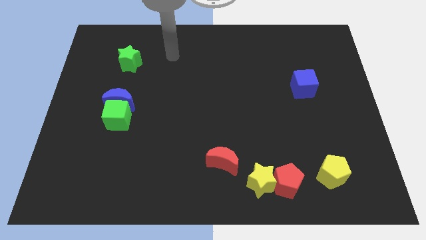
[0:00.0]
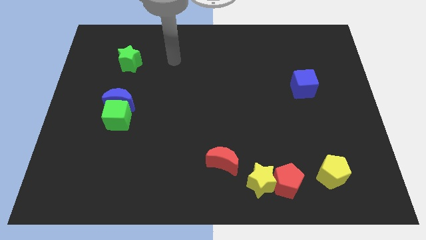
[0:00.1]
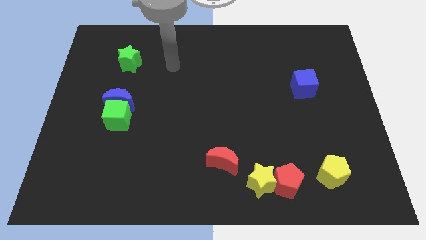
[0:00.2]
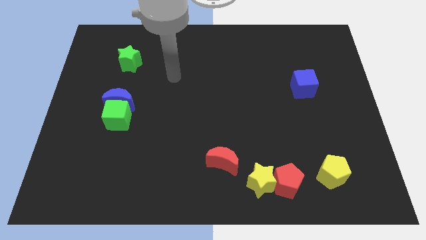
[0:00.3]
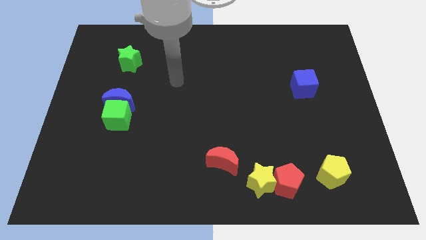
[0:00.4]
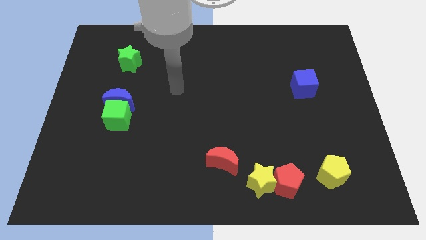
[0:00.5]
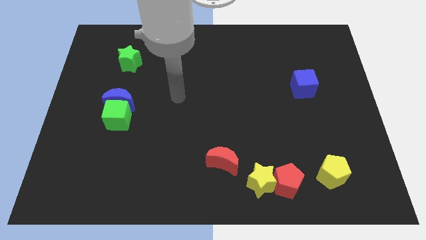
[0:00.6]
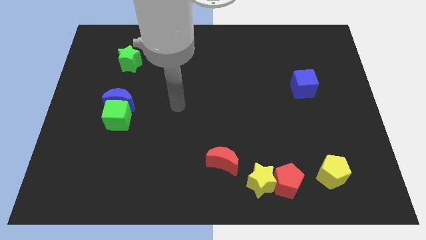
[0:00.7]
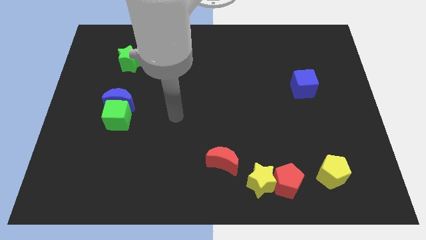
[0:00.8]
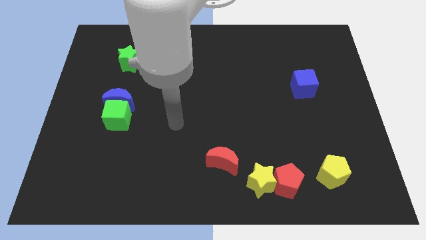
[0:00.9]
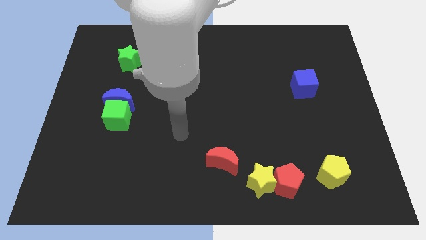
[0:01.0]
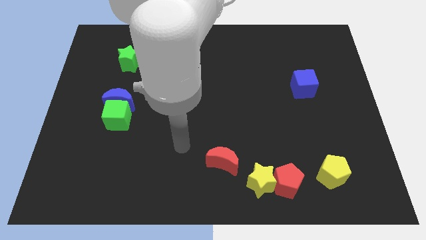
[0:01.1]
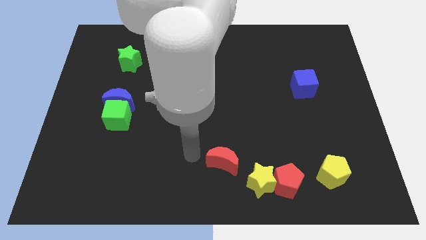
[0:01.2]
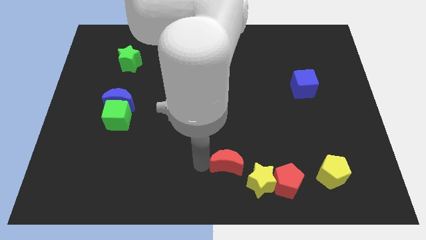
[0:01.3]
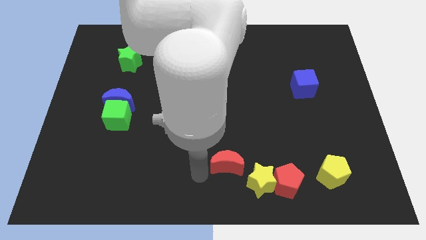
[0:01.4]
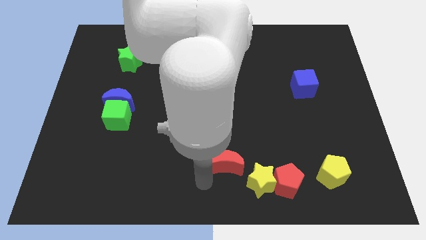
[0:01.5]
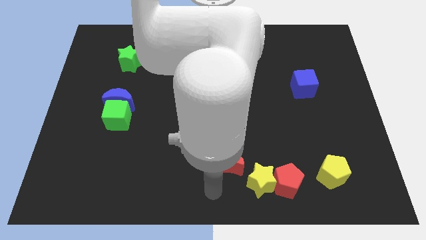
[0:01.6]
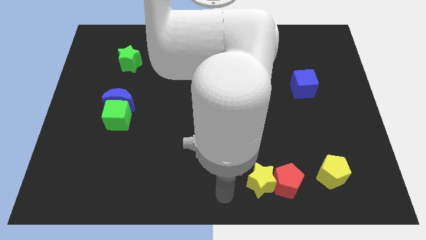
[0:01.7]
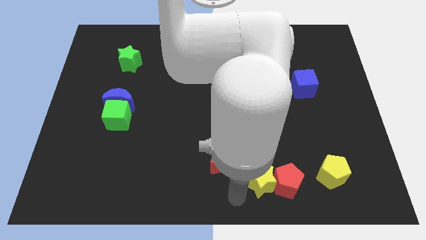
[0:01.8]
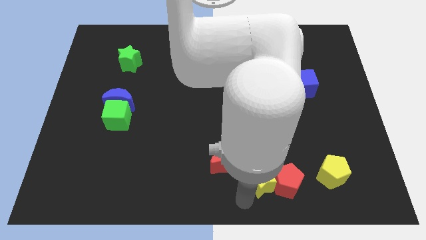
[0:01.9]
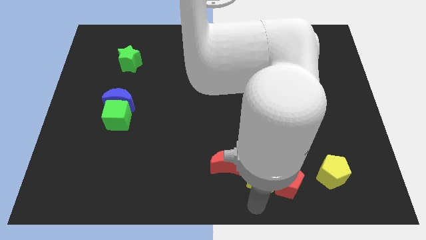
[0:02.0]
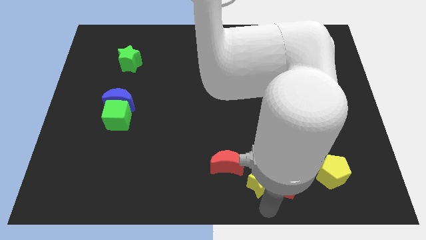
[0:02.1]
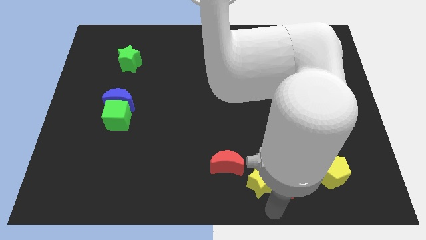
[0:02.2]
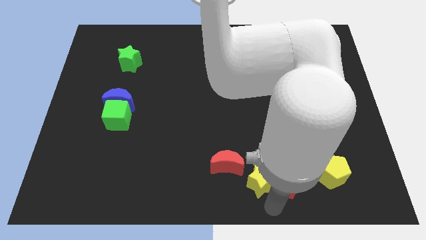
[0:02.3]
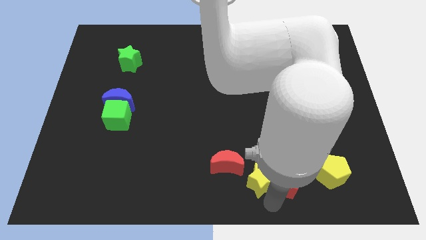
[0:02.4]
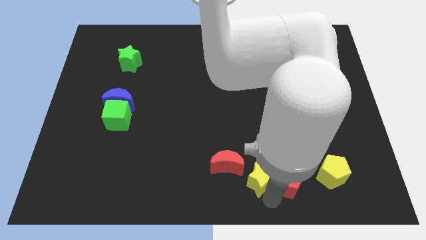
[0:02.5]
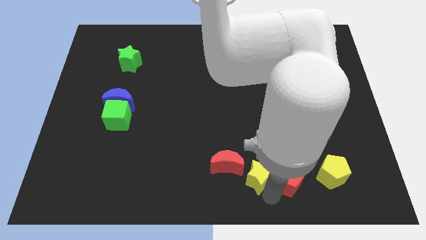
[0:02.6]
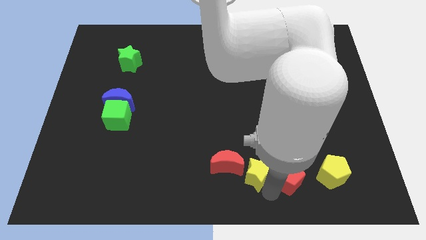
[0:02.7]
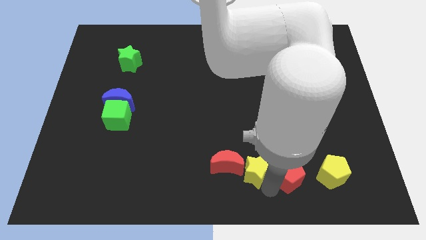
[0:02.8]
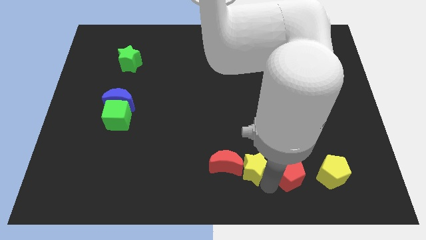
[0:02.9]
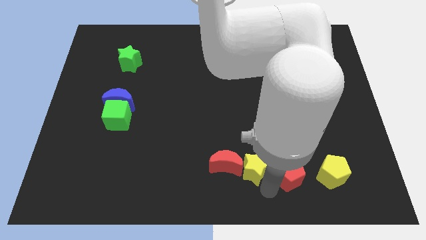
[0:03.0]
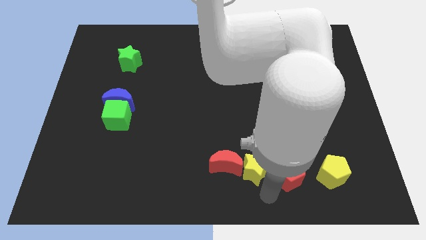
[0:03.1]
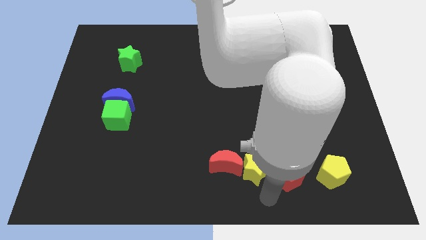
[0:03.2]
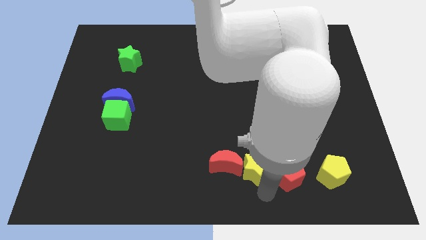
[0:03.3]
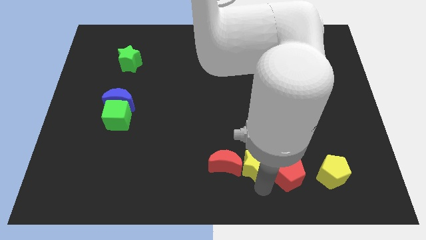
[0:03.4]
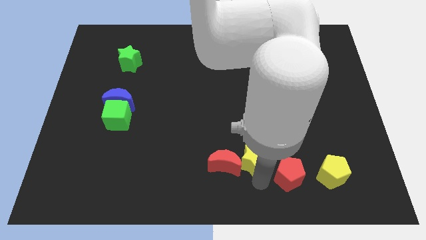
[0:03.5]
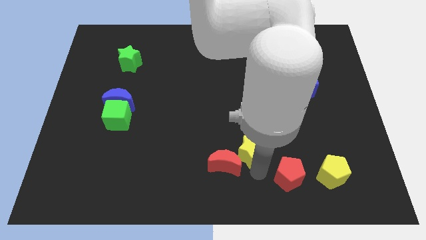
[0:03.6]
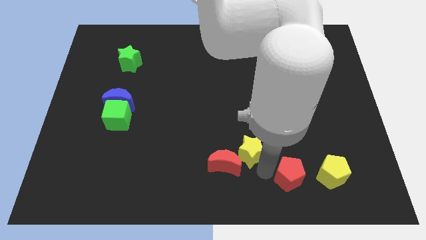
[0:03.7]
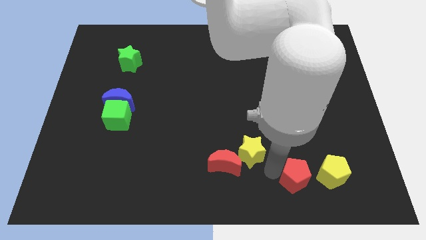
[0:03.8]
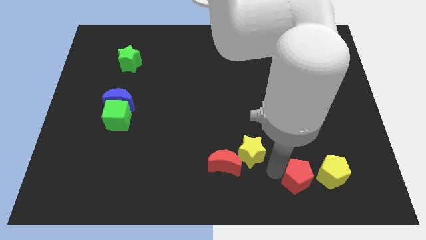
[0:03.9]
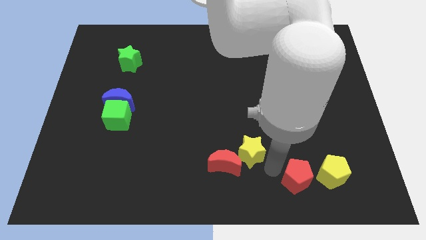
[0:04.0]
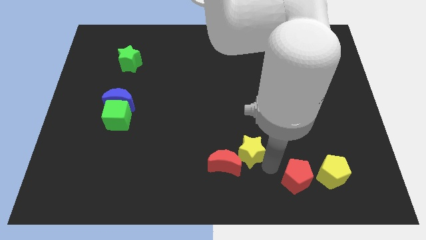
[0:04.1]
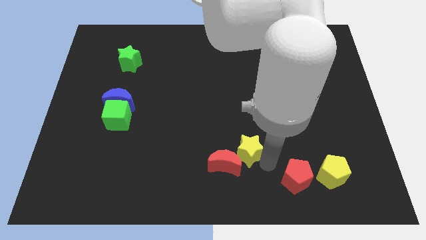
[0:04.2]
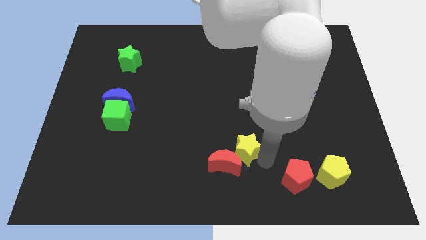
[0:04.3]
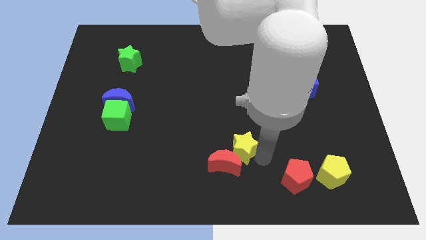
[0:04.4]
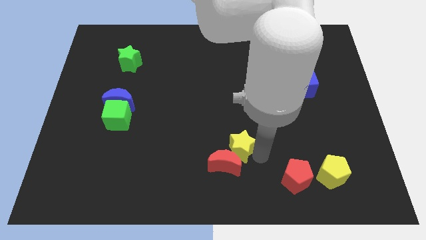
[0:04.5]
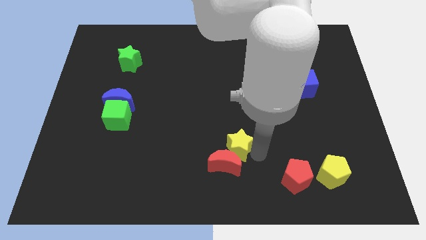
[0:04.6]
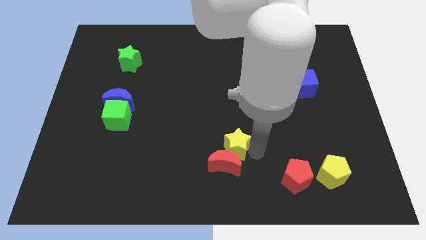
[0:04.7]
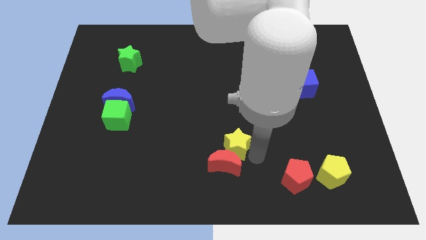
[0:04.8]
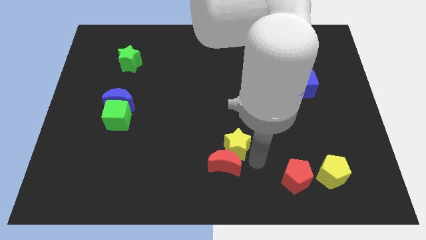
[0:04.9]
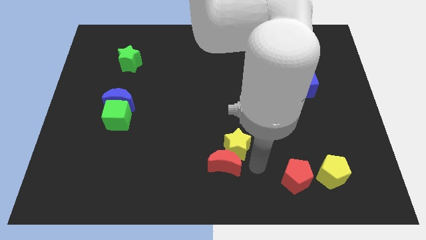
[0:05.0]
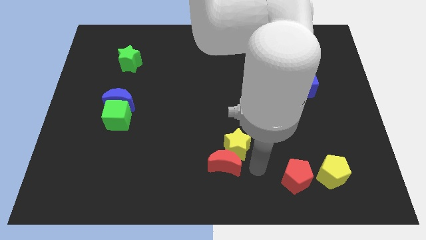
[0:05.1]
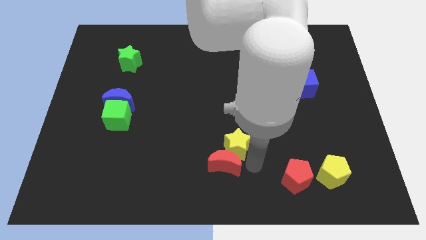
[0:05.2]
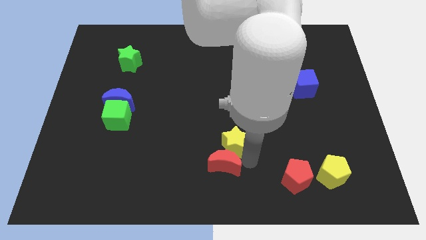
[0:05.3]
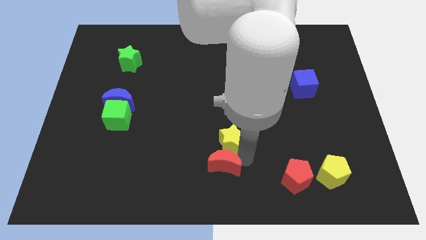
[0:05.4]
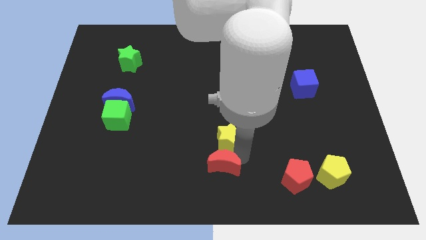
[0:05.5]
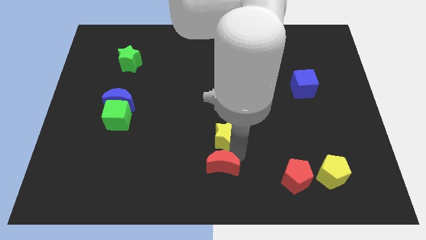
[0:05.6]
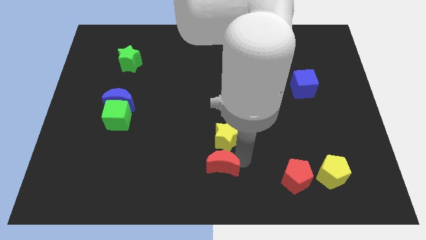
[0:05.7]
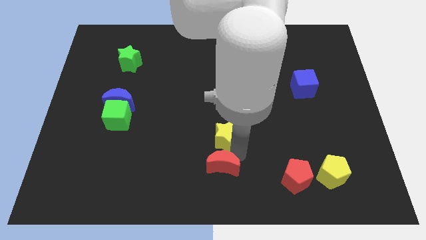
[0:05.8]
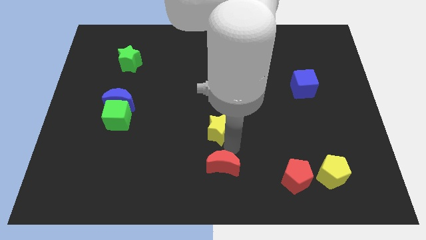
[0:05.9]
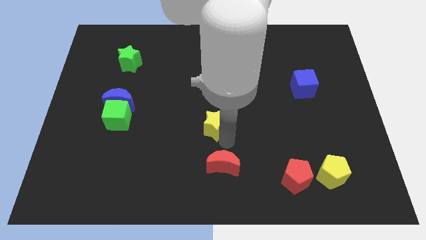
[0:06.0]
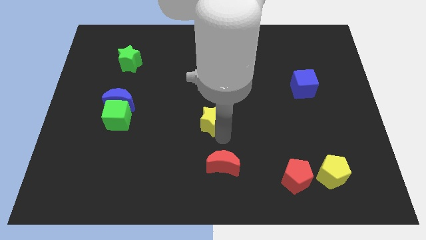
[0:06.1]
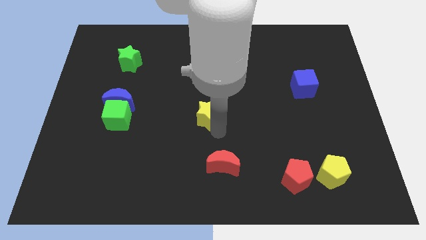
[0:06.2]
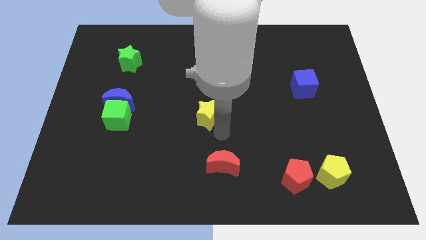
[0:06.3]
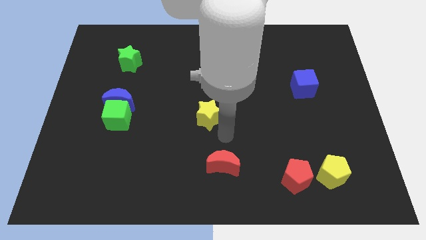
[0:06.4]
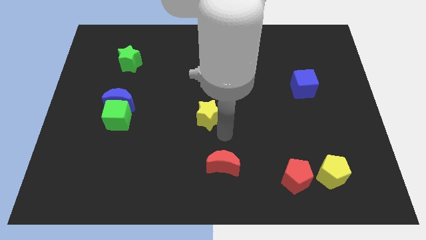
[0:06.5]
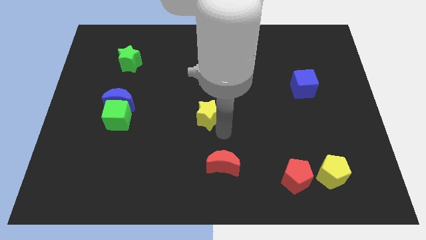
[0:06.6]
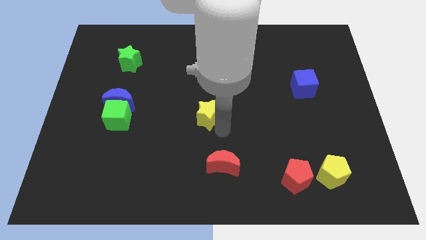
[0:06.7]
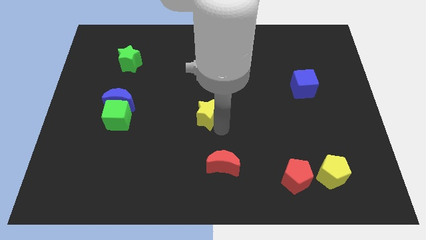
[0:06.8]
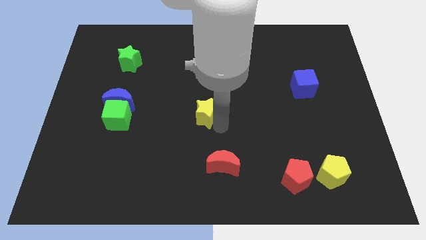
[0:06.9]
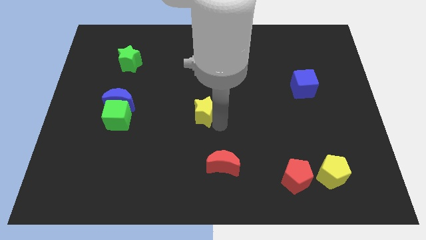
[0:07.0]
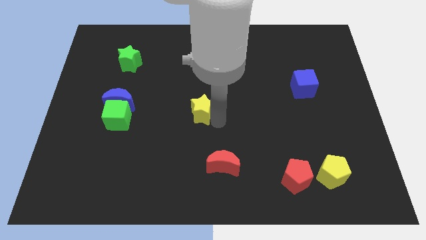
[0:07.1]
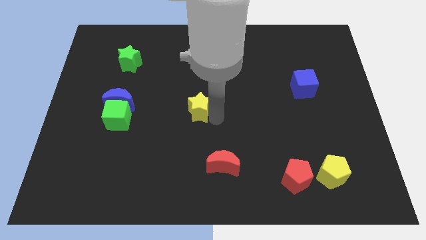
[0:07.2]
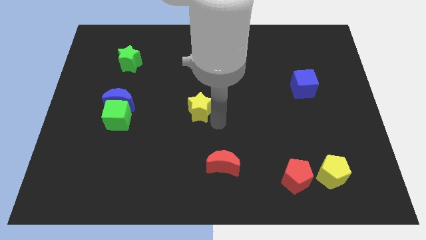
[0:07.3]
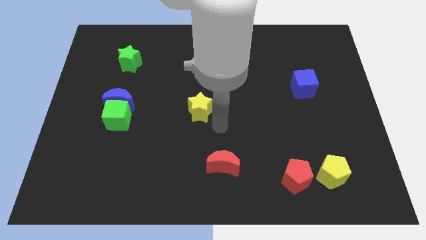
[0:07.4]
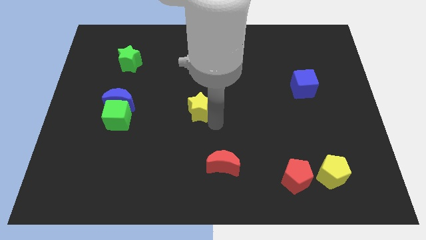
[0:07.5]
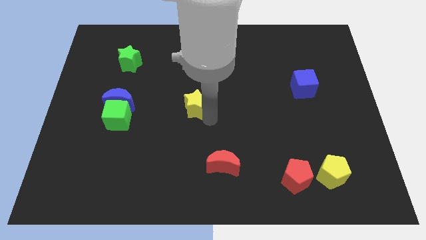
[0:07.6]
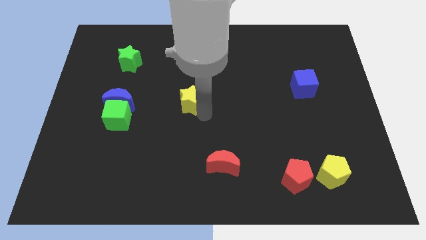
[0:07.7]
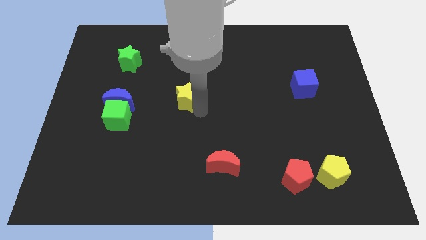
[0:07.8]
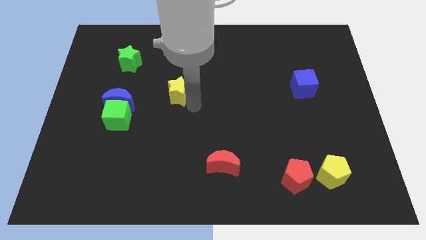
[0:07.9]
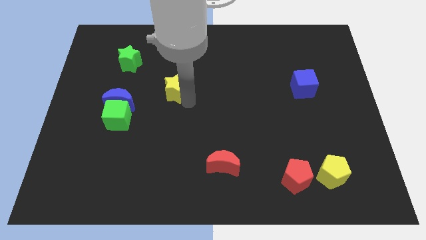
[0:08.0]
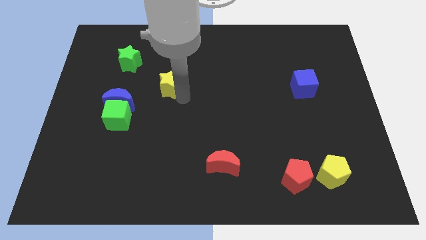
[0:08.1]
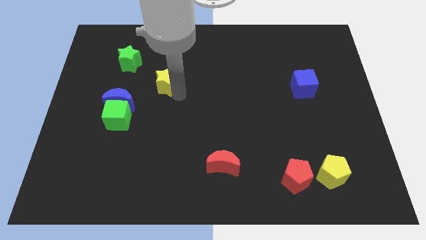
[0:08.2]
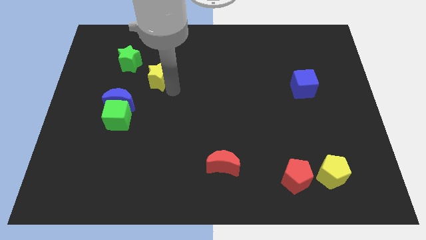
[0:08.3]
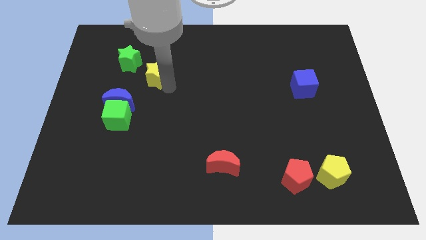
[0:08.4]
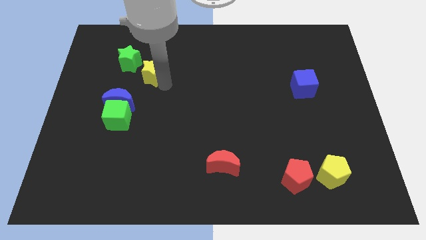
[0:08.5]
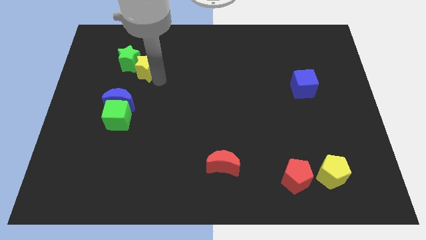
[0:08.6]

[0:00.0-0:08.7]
push the yellow star to the green star
